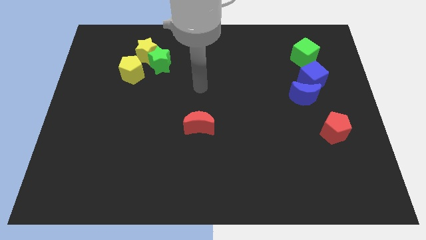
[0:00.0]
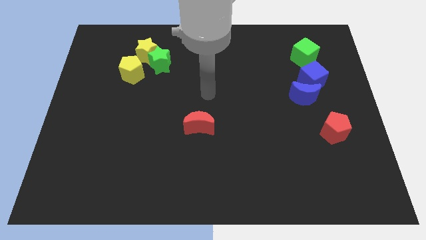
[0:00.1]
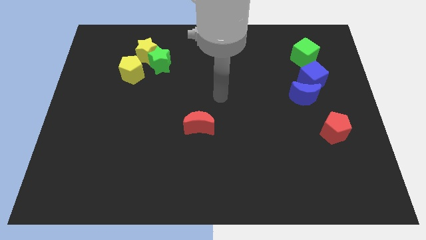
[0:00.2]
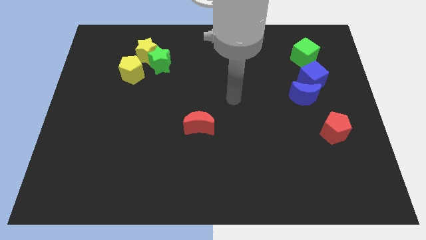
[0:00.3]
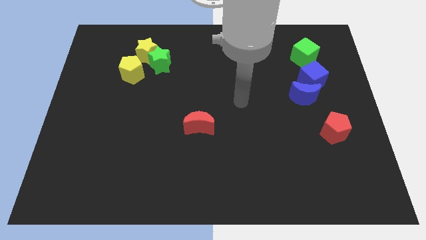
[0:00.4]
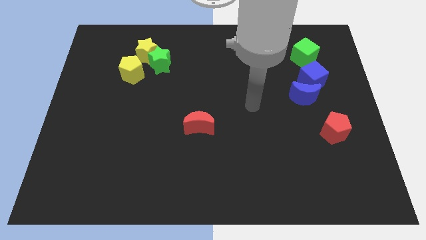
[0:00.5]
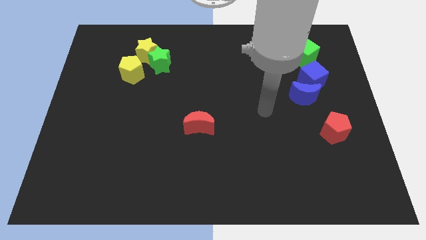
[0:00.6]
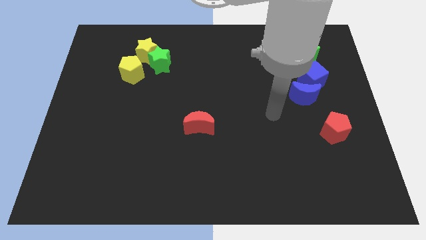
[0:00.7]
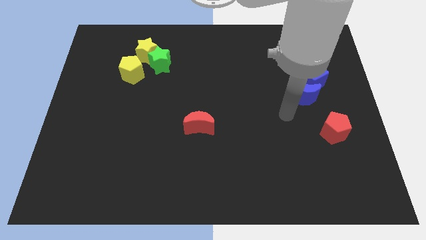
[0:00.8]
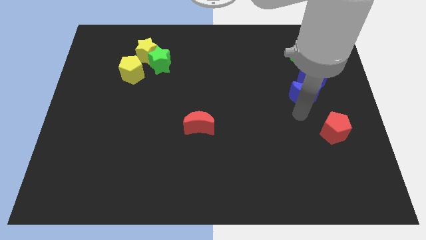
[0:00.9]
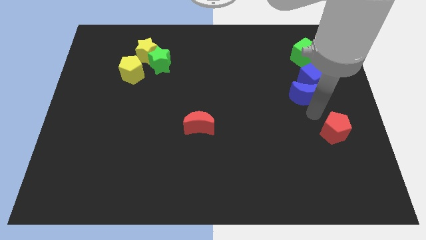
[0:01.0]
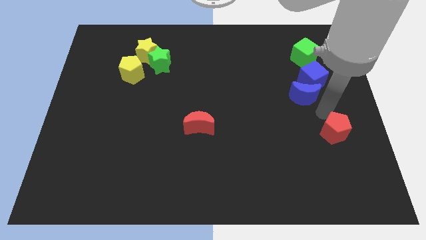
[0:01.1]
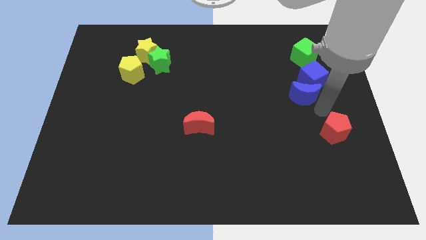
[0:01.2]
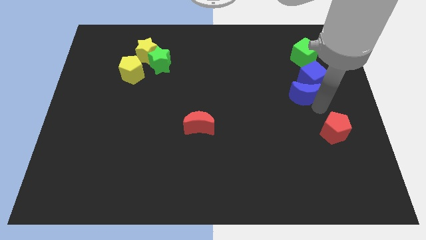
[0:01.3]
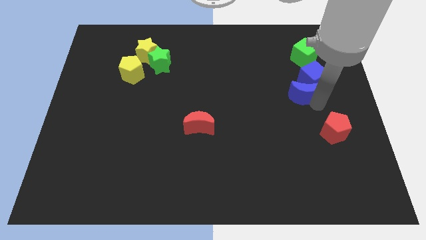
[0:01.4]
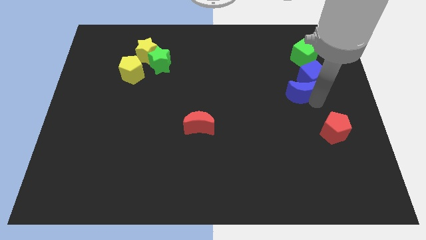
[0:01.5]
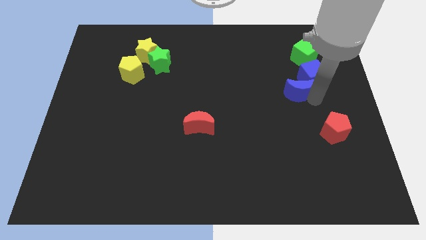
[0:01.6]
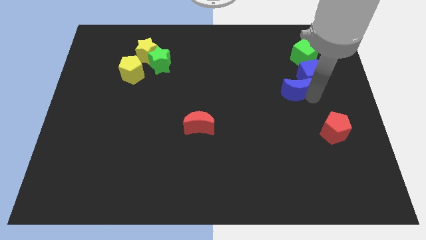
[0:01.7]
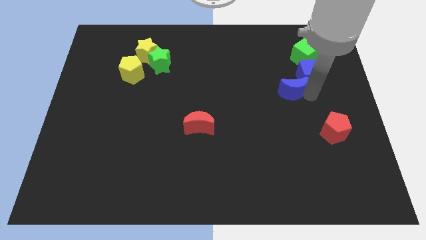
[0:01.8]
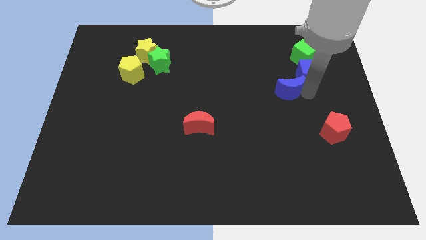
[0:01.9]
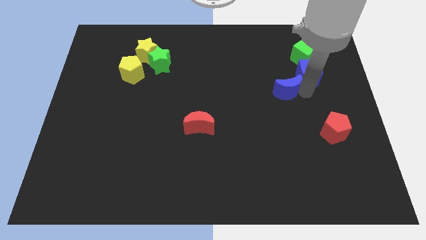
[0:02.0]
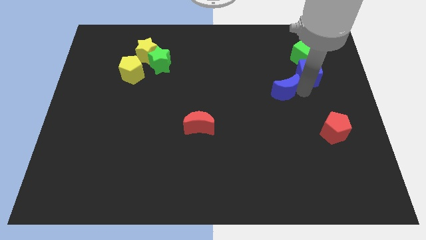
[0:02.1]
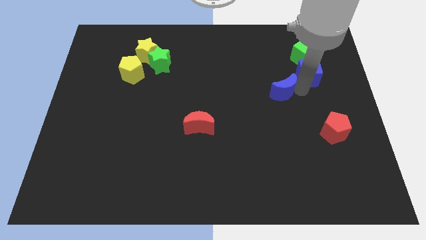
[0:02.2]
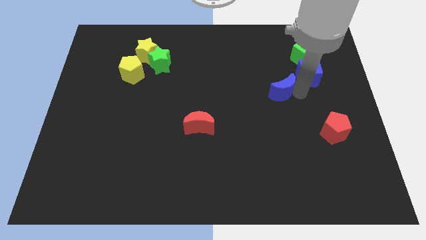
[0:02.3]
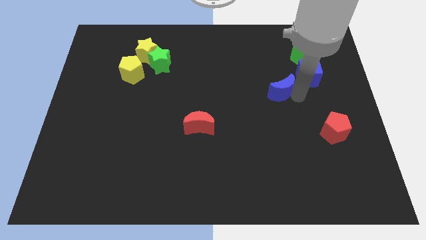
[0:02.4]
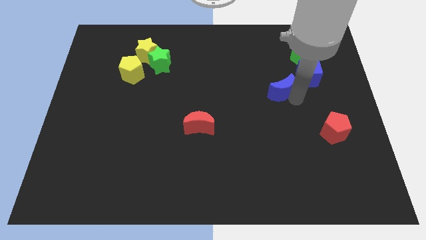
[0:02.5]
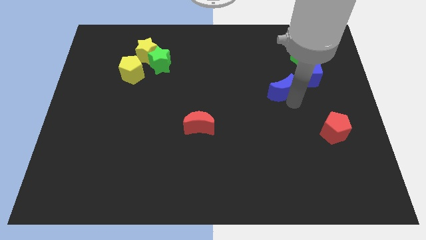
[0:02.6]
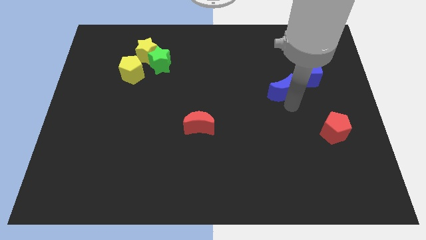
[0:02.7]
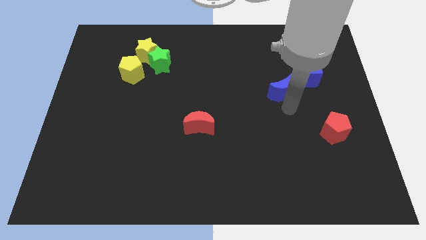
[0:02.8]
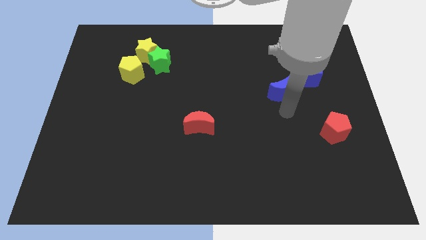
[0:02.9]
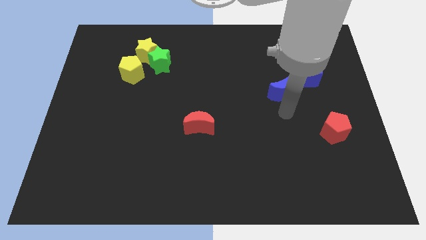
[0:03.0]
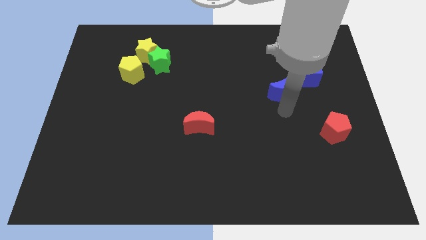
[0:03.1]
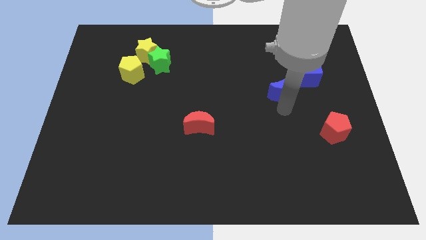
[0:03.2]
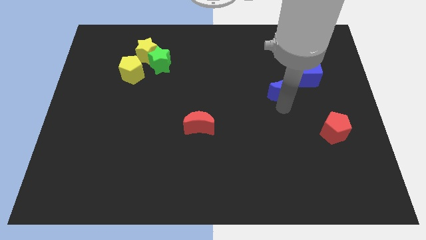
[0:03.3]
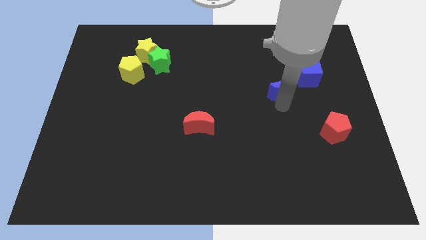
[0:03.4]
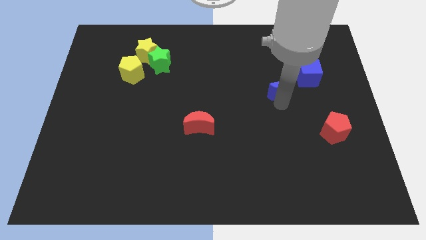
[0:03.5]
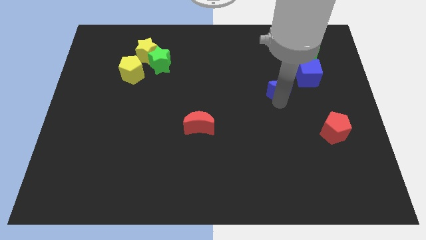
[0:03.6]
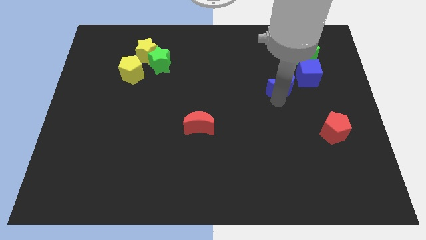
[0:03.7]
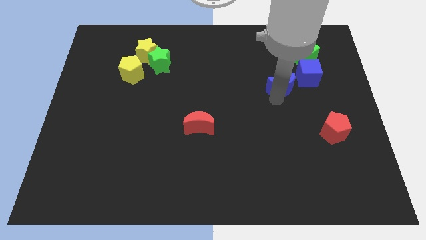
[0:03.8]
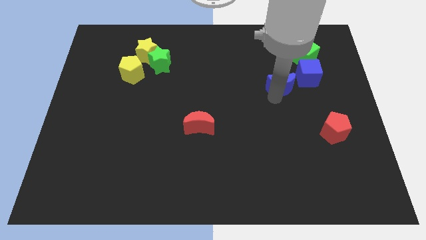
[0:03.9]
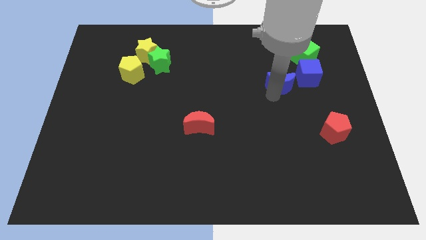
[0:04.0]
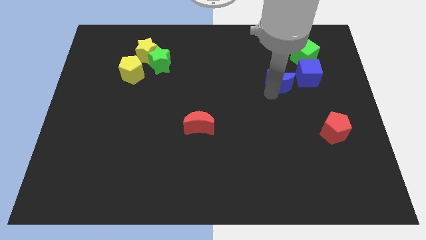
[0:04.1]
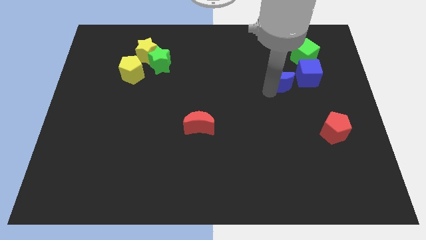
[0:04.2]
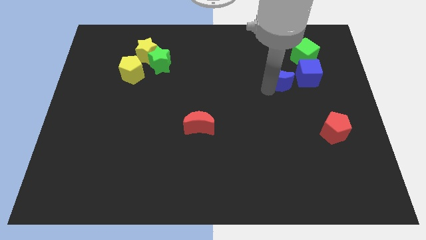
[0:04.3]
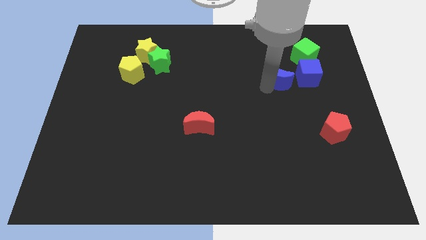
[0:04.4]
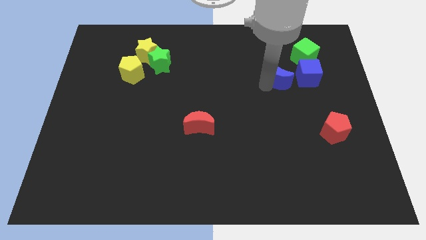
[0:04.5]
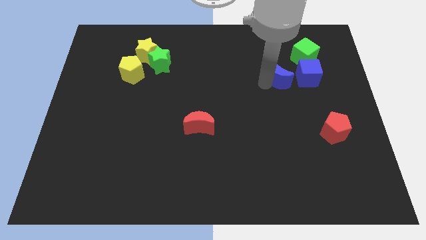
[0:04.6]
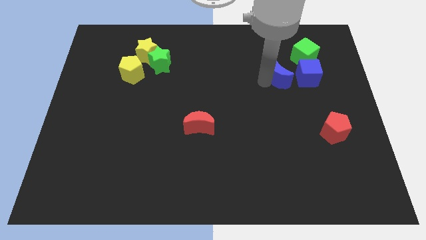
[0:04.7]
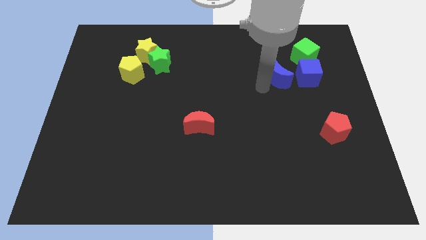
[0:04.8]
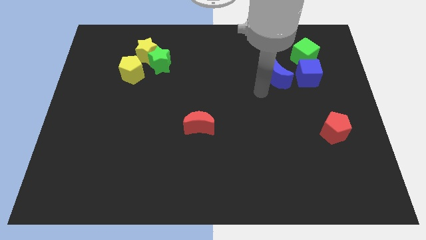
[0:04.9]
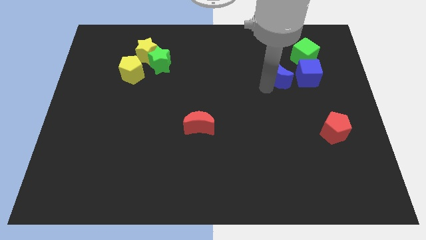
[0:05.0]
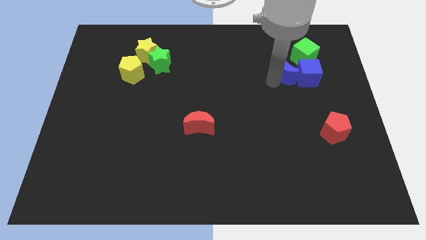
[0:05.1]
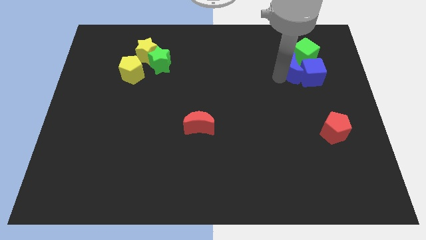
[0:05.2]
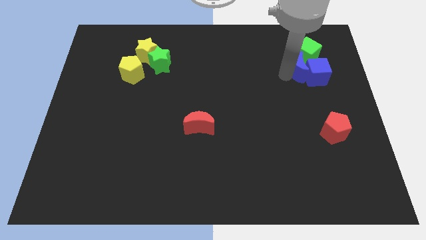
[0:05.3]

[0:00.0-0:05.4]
move the blue moon close to the green cube

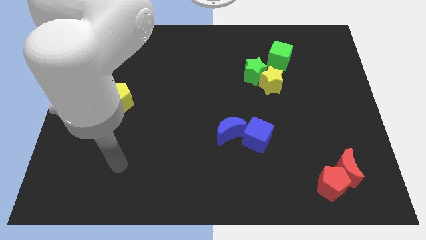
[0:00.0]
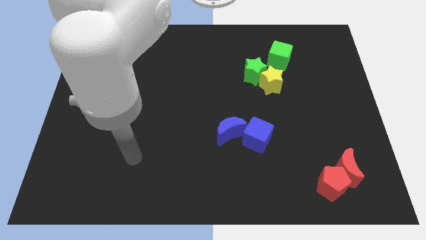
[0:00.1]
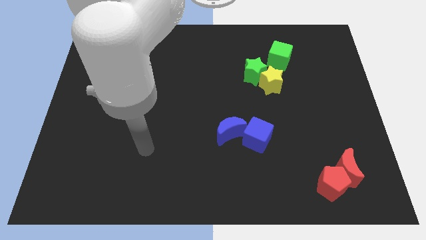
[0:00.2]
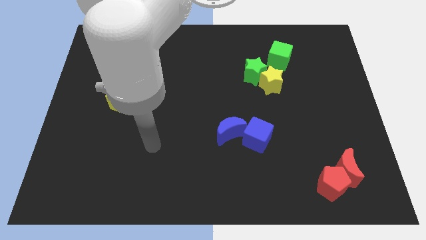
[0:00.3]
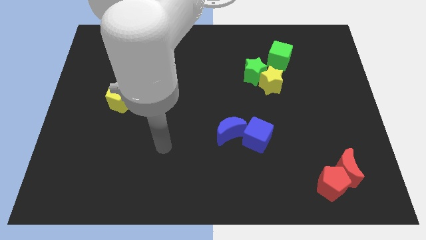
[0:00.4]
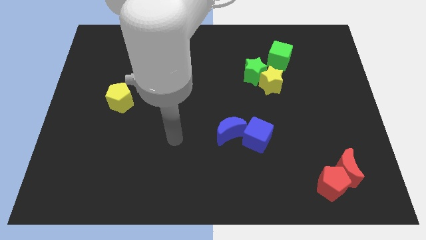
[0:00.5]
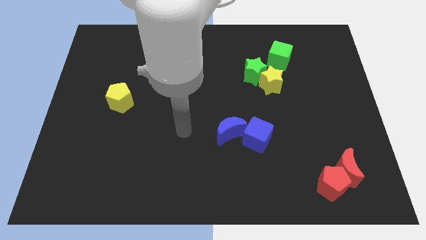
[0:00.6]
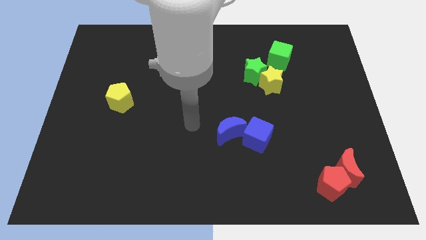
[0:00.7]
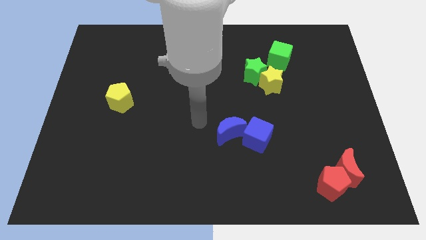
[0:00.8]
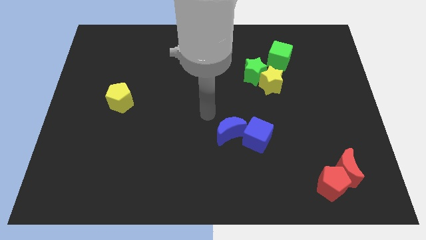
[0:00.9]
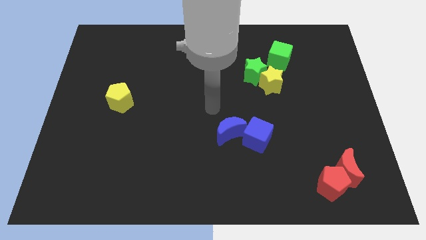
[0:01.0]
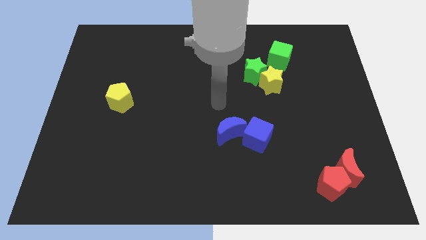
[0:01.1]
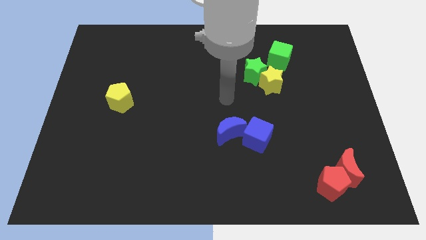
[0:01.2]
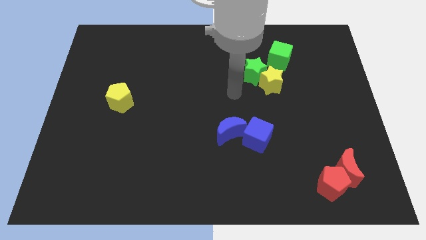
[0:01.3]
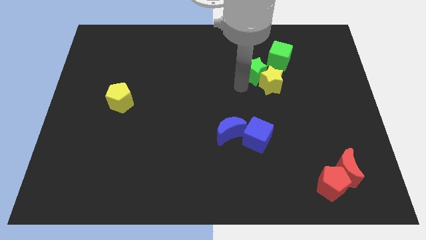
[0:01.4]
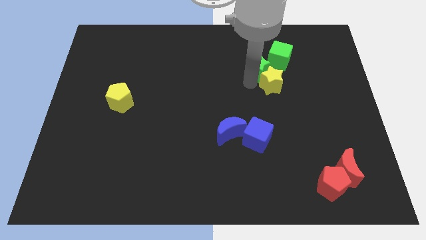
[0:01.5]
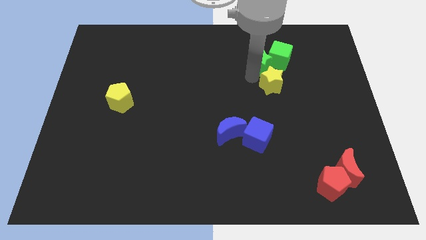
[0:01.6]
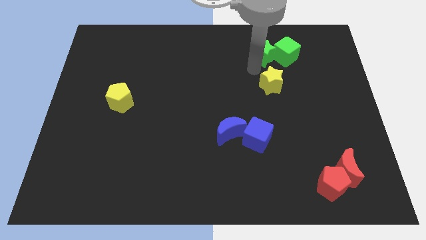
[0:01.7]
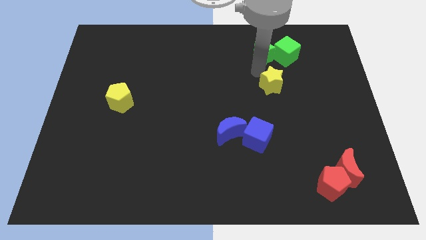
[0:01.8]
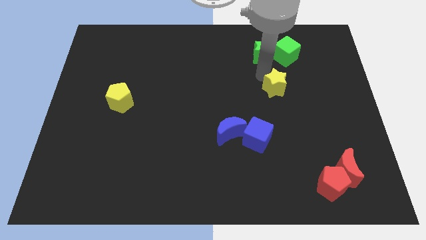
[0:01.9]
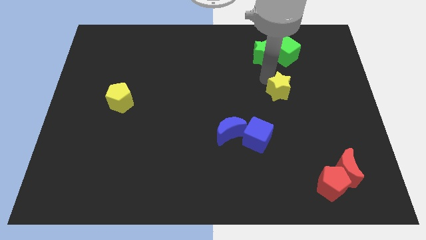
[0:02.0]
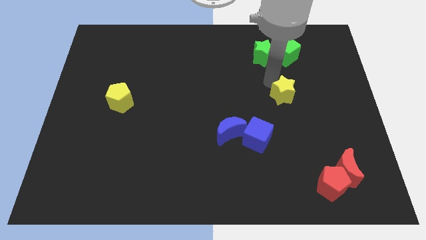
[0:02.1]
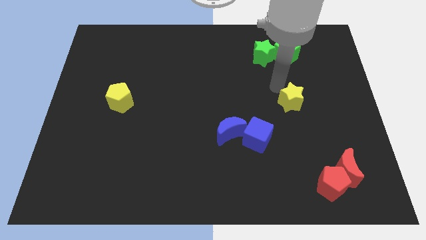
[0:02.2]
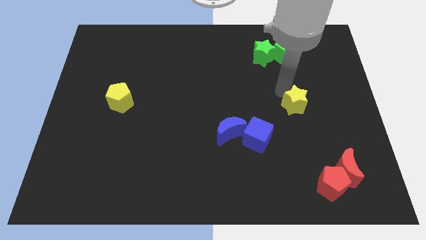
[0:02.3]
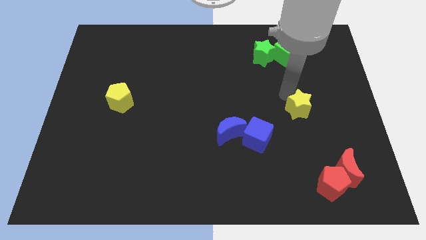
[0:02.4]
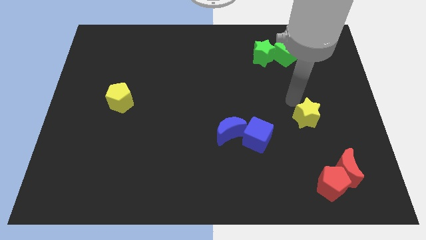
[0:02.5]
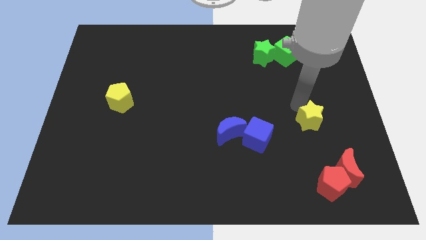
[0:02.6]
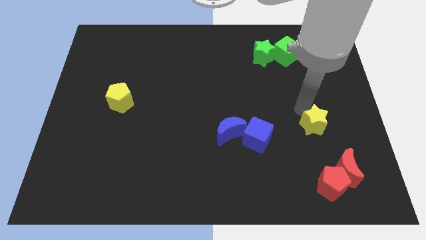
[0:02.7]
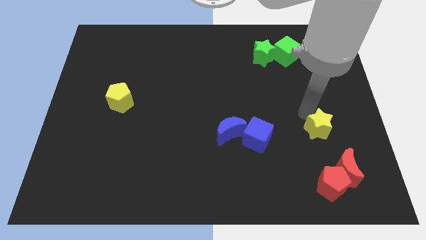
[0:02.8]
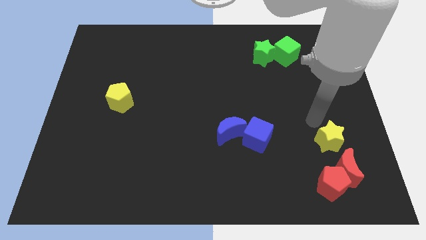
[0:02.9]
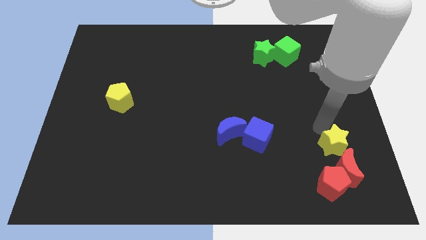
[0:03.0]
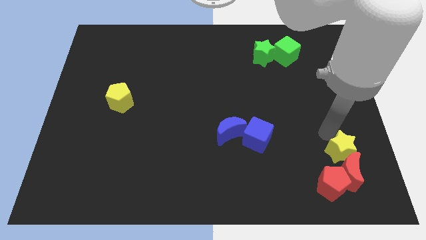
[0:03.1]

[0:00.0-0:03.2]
put the yellow star to the red moon
